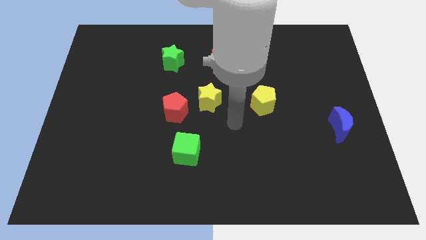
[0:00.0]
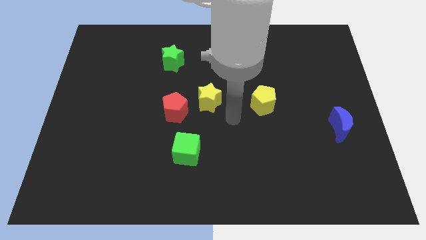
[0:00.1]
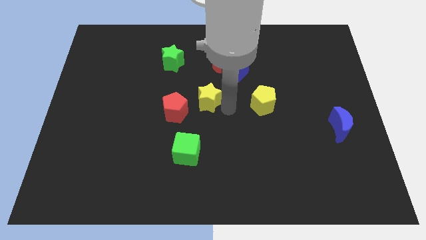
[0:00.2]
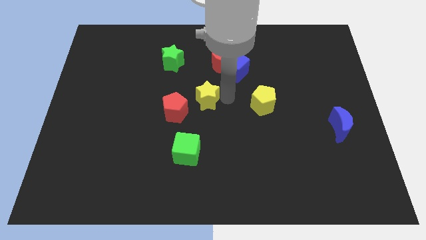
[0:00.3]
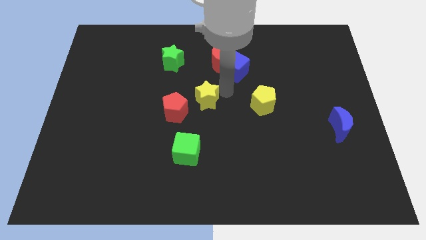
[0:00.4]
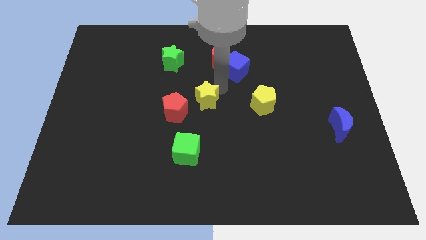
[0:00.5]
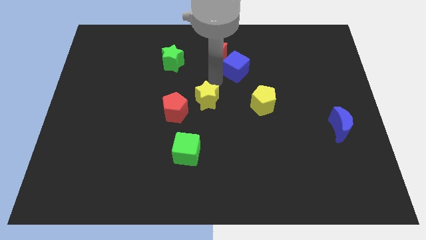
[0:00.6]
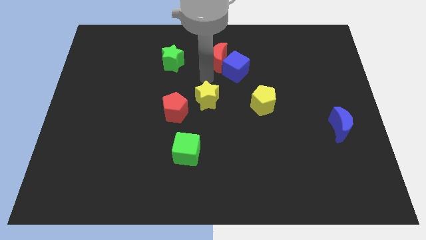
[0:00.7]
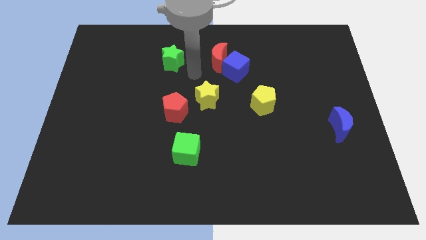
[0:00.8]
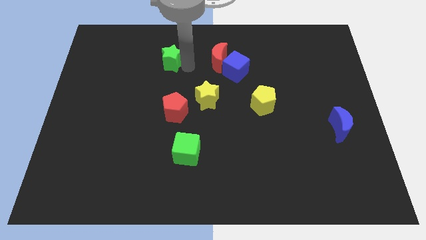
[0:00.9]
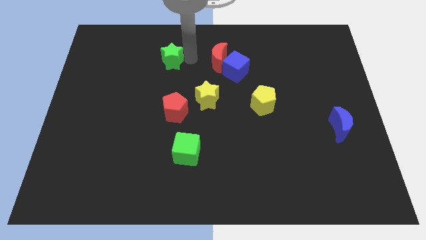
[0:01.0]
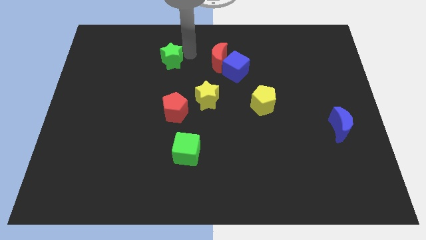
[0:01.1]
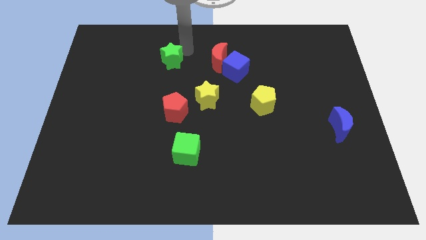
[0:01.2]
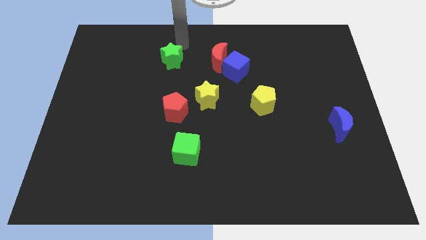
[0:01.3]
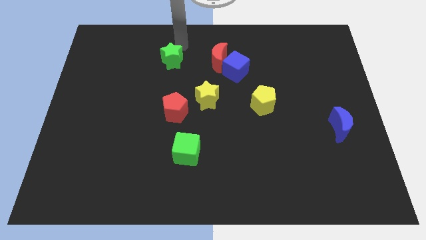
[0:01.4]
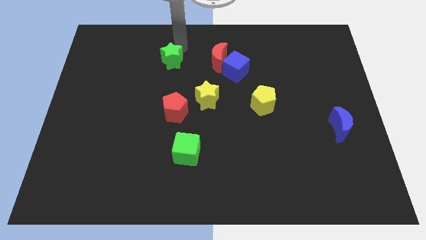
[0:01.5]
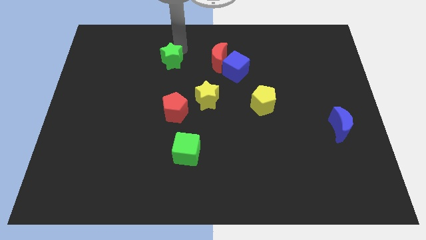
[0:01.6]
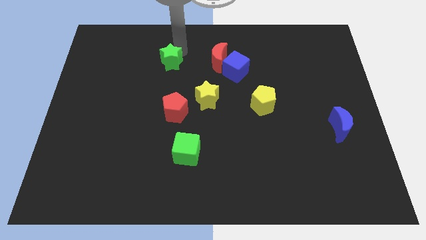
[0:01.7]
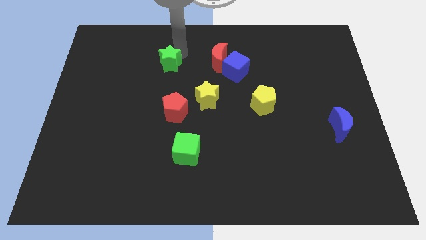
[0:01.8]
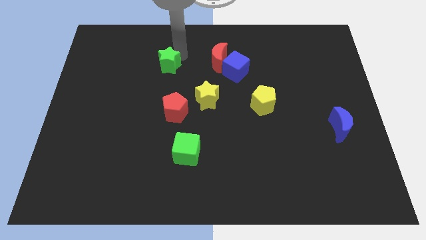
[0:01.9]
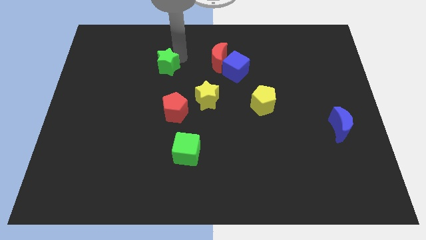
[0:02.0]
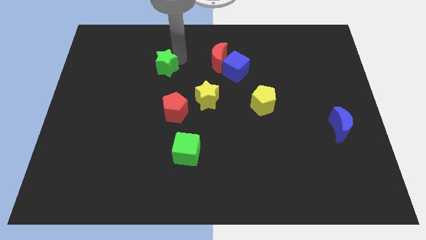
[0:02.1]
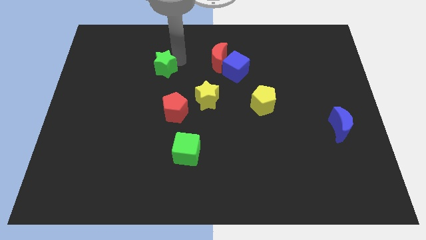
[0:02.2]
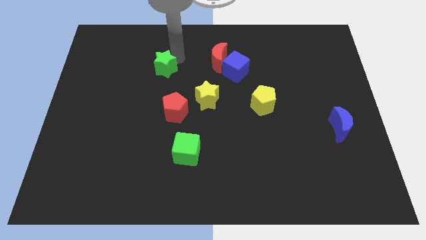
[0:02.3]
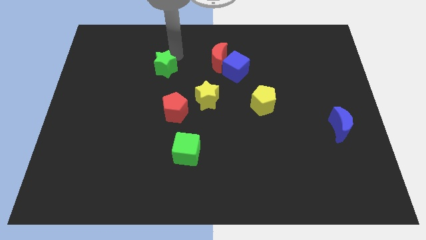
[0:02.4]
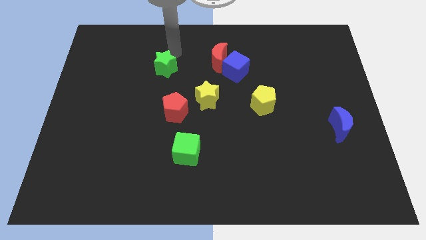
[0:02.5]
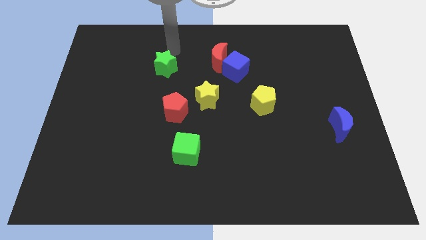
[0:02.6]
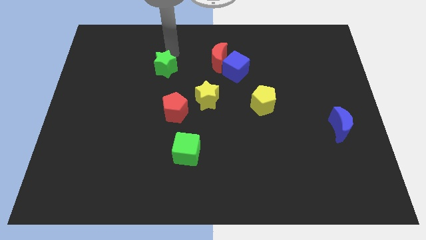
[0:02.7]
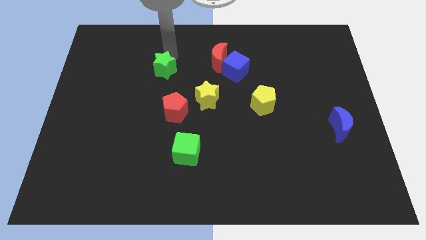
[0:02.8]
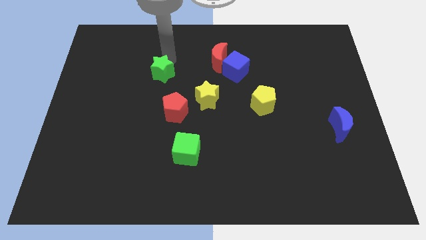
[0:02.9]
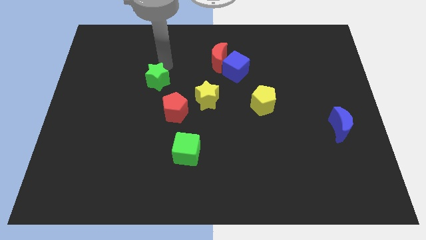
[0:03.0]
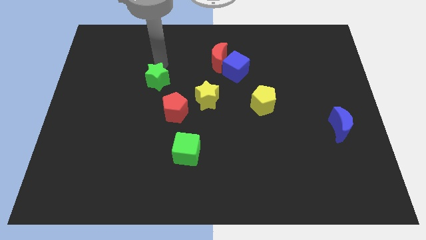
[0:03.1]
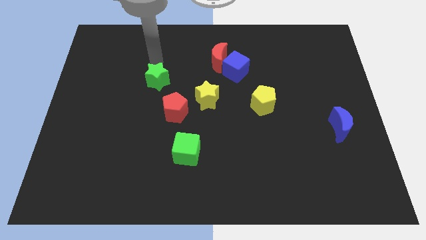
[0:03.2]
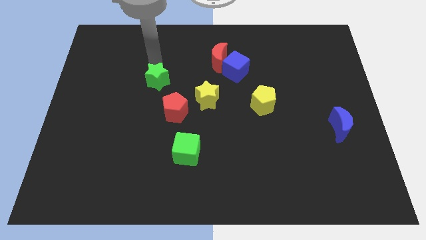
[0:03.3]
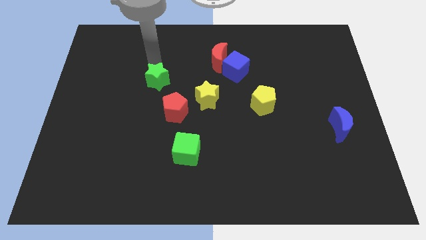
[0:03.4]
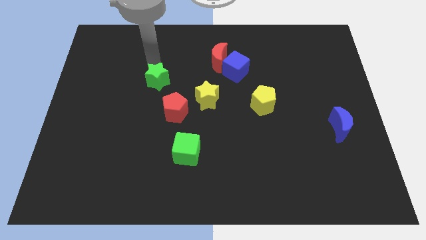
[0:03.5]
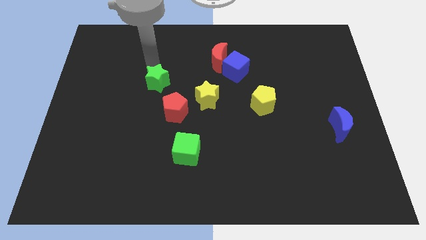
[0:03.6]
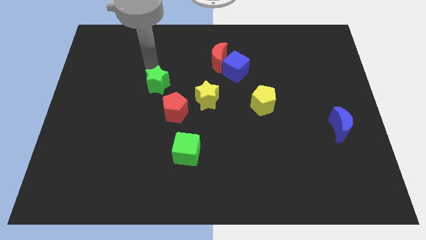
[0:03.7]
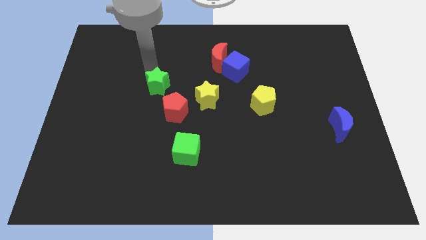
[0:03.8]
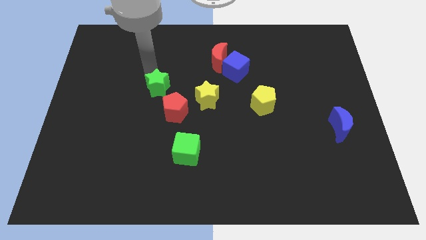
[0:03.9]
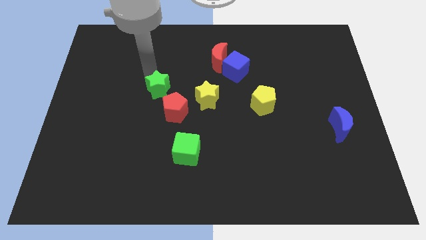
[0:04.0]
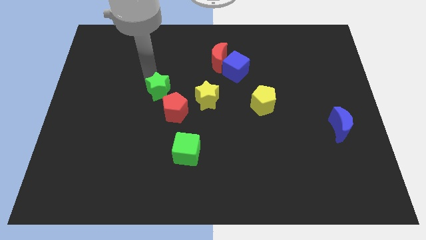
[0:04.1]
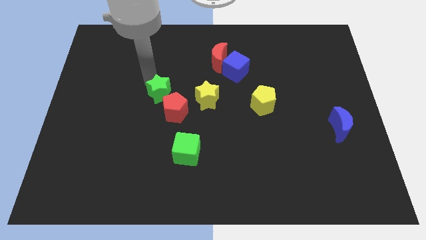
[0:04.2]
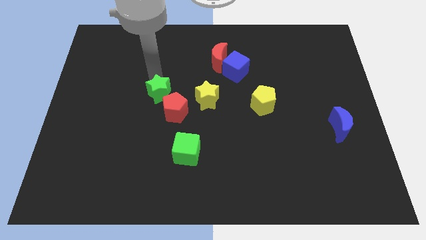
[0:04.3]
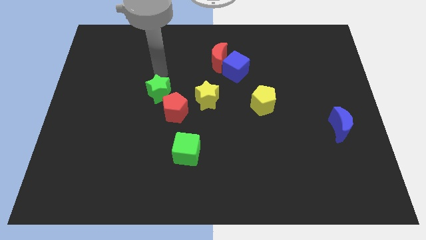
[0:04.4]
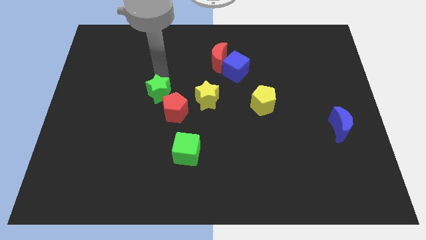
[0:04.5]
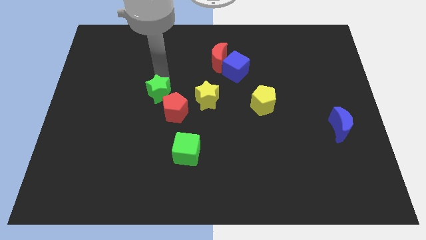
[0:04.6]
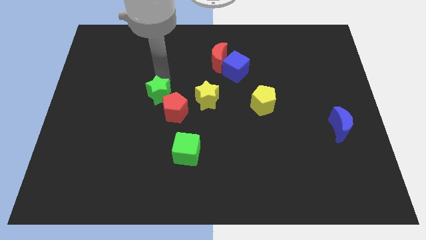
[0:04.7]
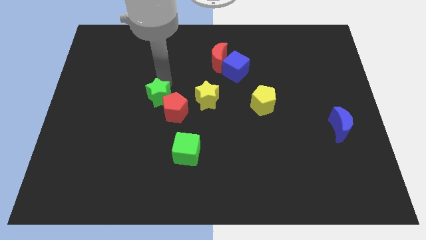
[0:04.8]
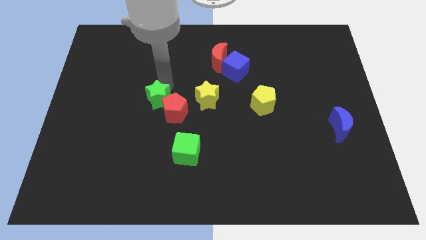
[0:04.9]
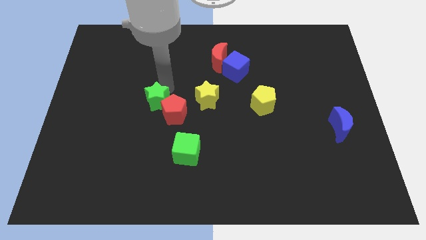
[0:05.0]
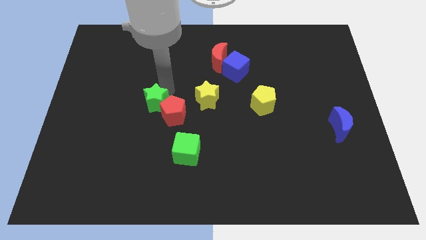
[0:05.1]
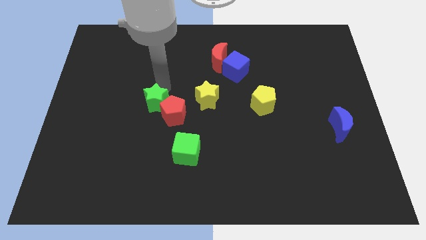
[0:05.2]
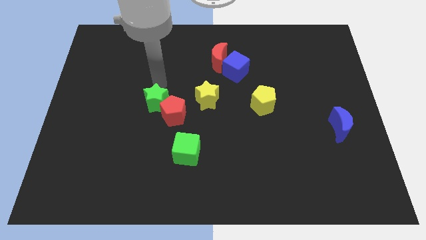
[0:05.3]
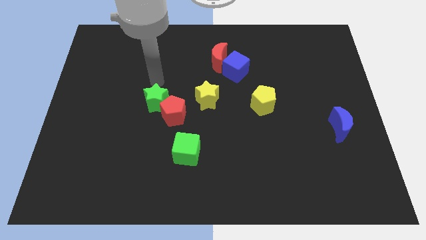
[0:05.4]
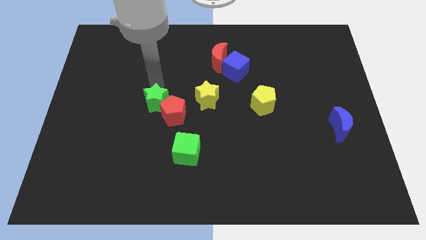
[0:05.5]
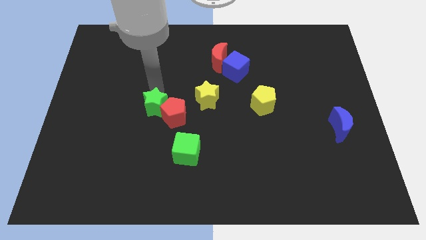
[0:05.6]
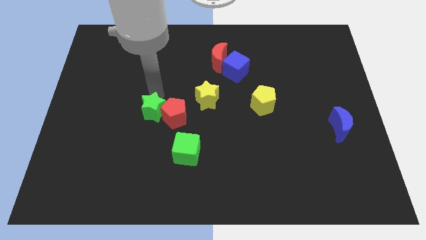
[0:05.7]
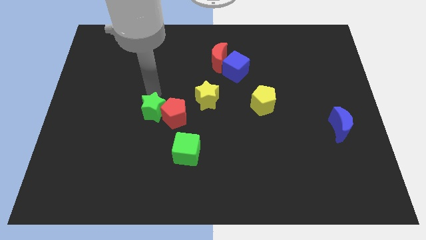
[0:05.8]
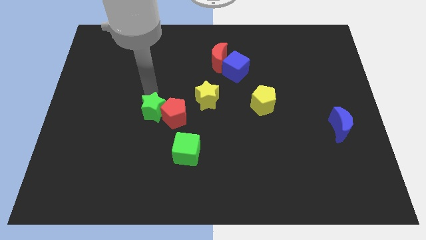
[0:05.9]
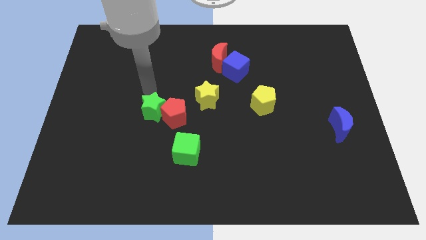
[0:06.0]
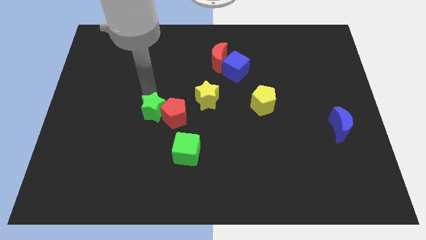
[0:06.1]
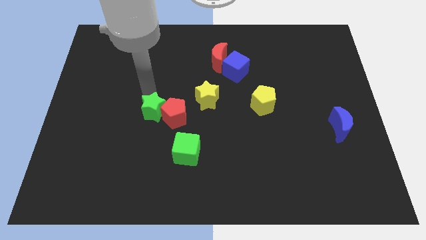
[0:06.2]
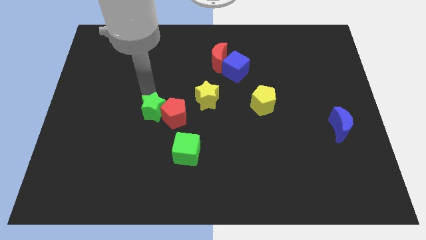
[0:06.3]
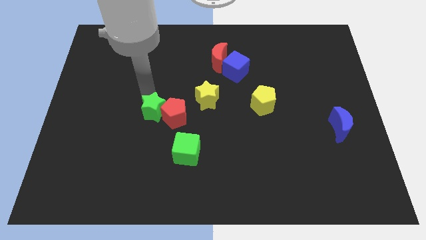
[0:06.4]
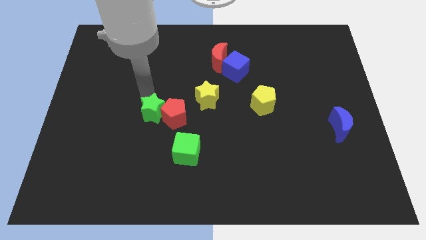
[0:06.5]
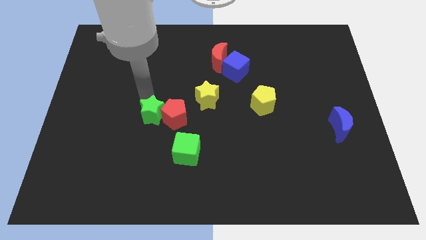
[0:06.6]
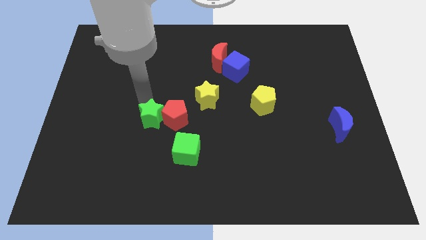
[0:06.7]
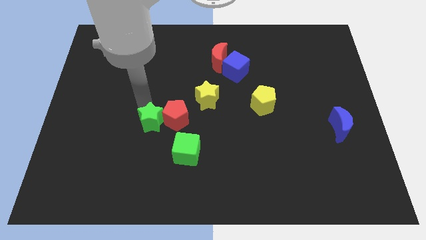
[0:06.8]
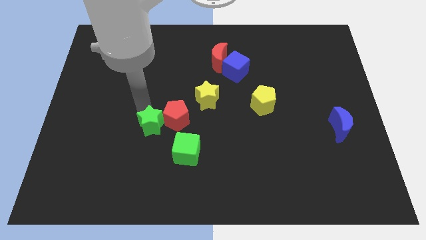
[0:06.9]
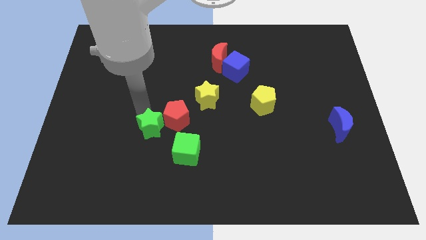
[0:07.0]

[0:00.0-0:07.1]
move the green star downwards

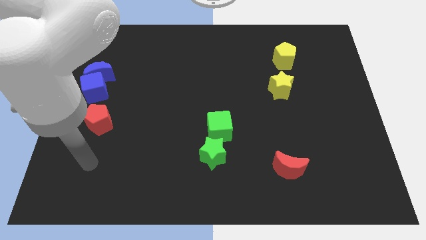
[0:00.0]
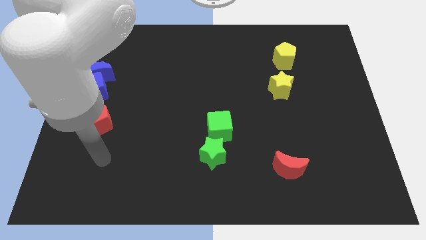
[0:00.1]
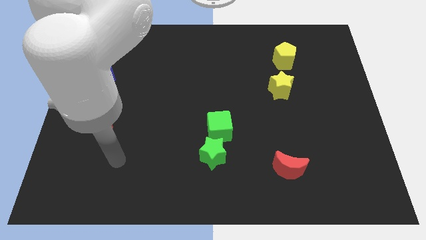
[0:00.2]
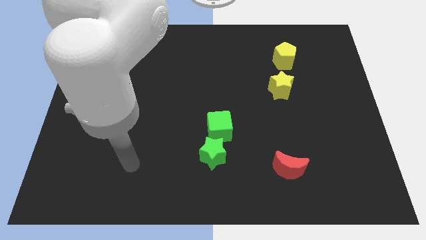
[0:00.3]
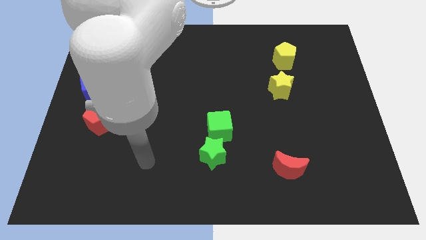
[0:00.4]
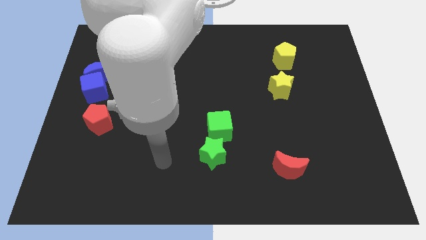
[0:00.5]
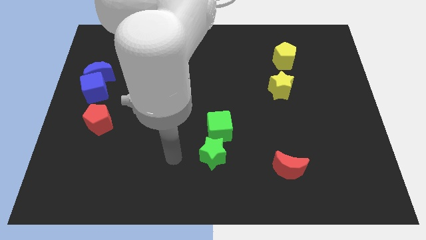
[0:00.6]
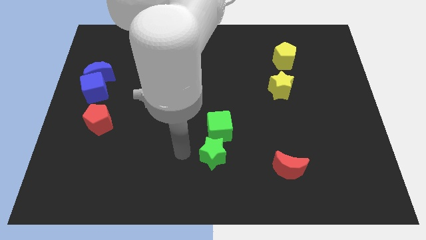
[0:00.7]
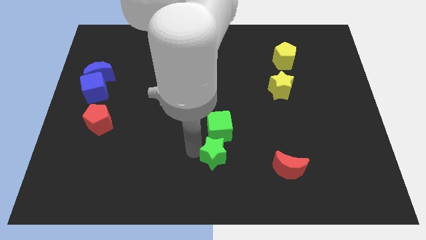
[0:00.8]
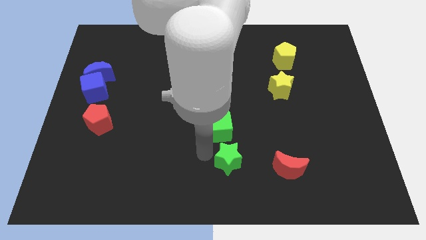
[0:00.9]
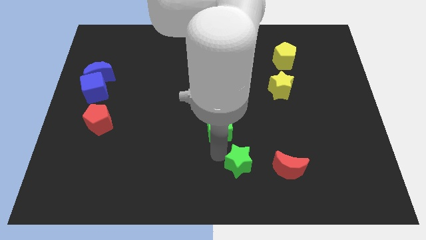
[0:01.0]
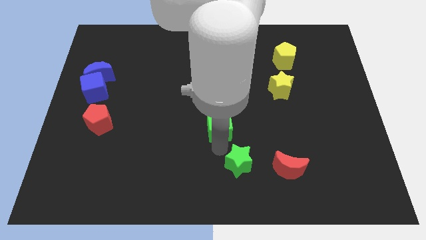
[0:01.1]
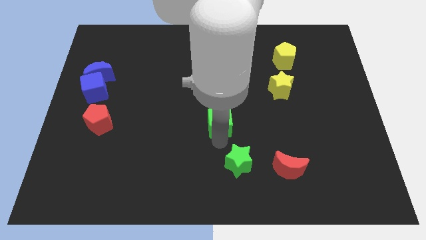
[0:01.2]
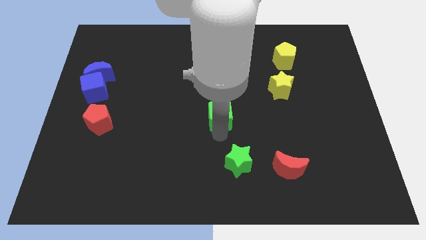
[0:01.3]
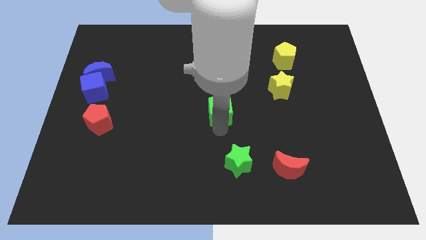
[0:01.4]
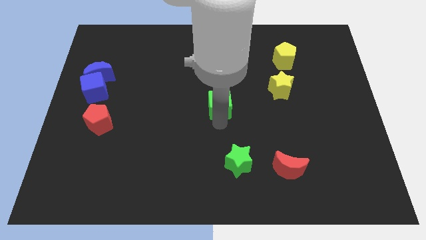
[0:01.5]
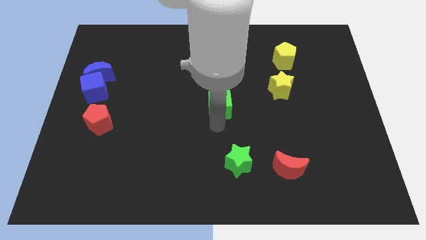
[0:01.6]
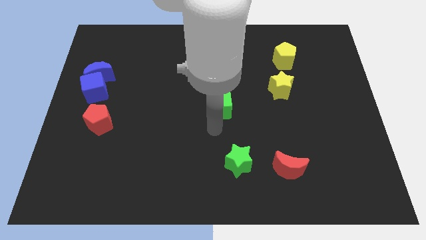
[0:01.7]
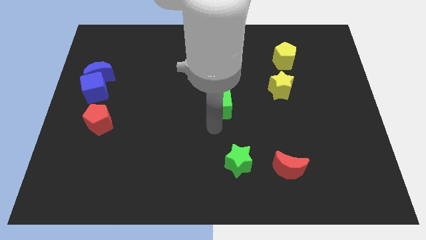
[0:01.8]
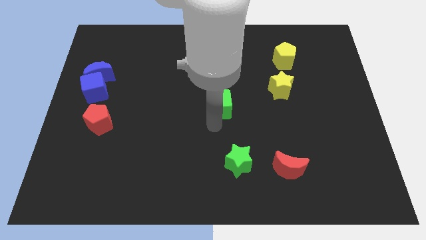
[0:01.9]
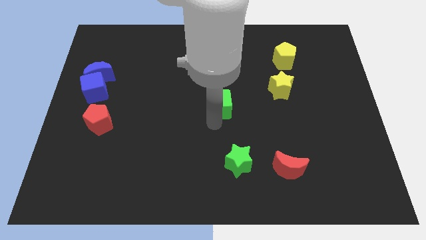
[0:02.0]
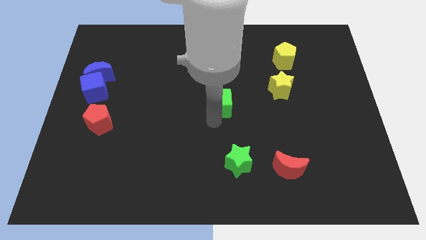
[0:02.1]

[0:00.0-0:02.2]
slightly slide the green cube upwards
